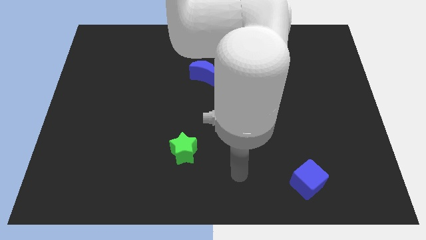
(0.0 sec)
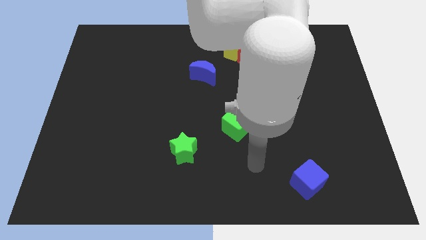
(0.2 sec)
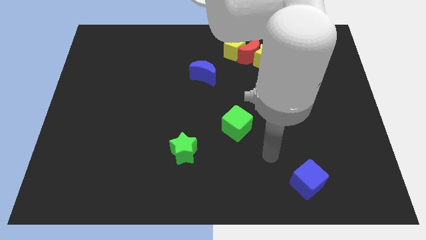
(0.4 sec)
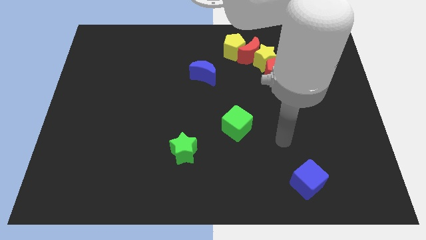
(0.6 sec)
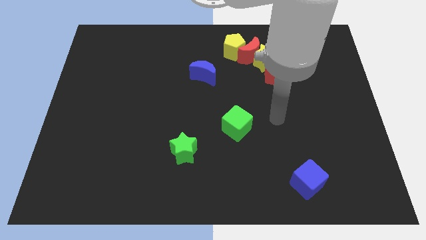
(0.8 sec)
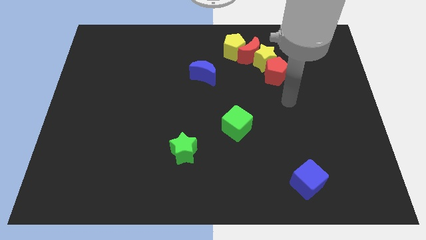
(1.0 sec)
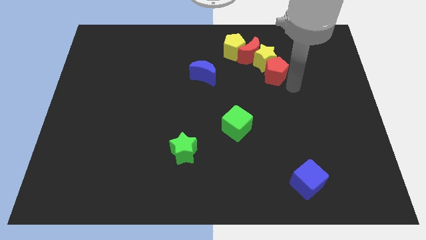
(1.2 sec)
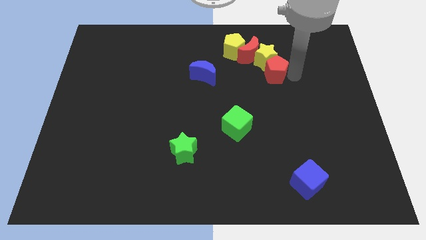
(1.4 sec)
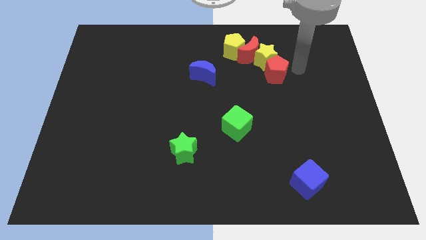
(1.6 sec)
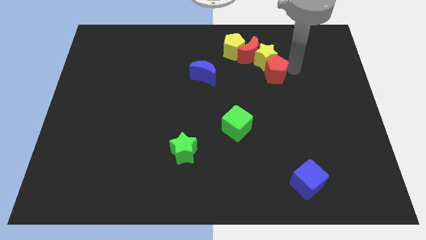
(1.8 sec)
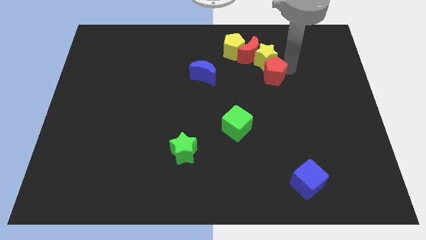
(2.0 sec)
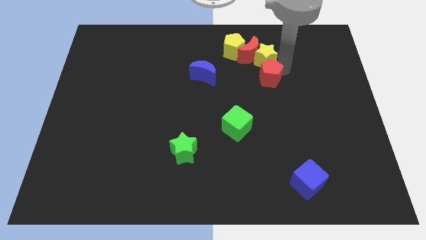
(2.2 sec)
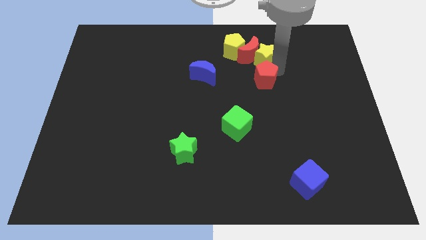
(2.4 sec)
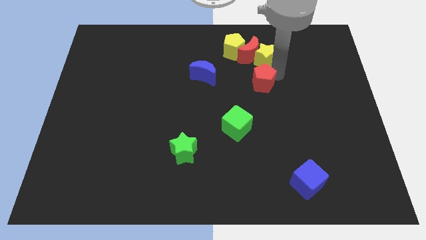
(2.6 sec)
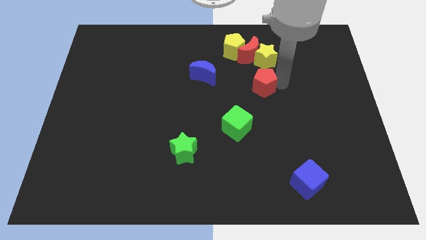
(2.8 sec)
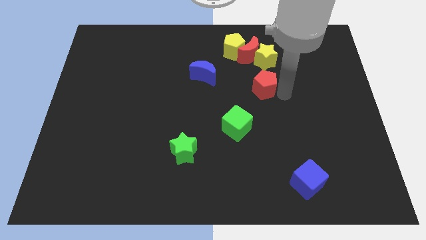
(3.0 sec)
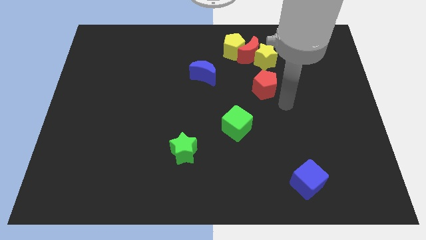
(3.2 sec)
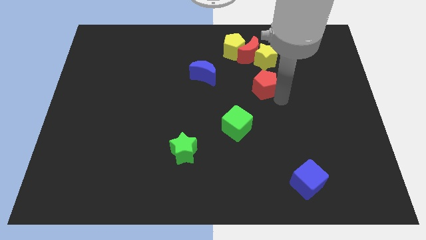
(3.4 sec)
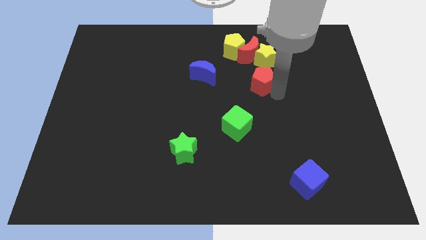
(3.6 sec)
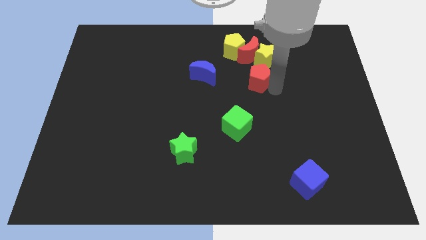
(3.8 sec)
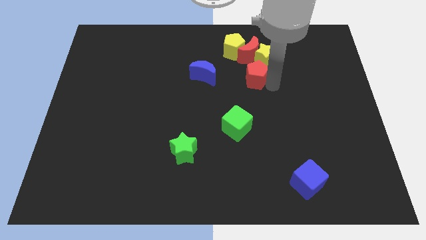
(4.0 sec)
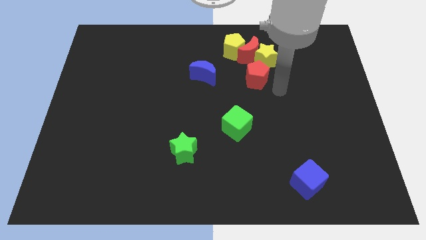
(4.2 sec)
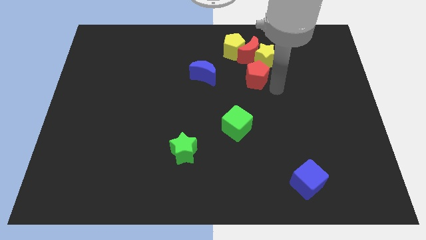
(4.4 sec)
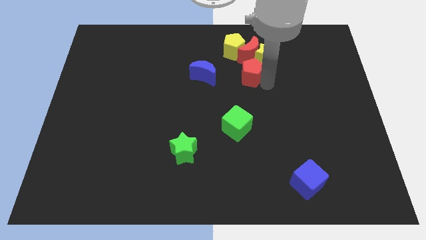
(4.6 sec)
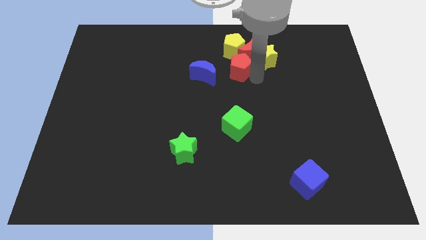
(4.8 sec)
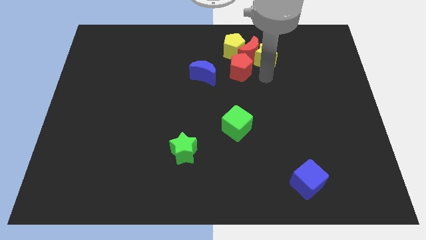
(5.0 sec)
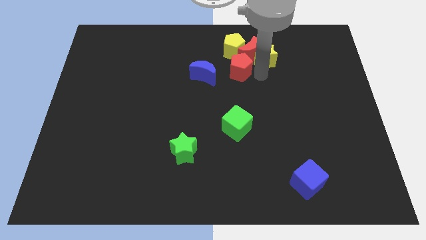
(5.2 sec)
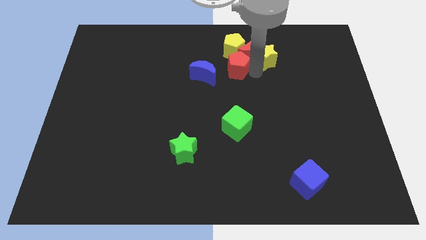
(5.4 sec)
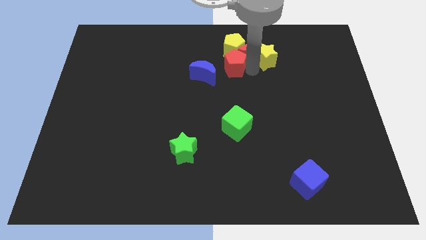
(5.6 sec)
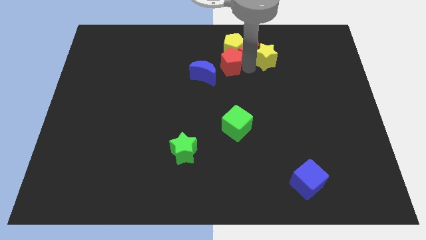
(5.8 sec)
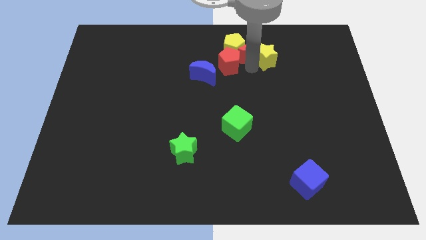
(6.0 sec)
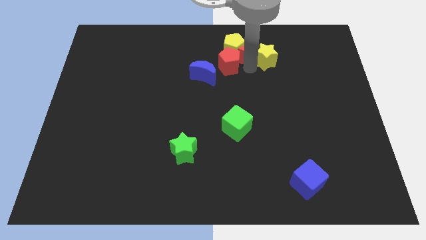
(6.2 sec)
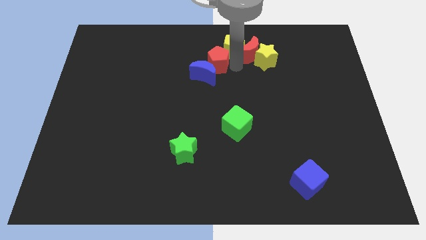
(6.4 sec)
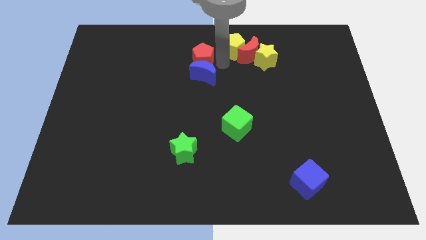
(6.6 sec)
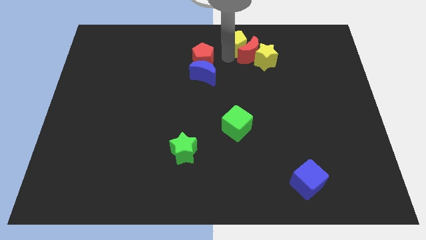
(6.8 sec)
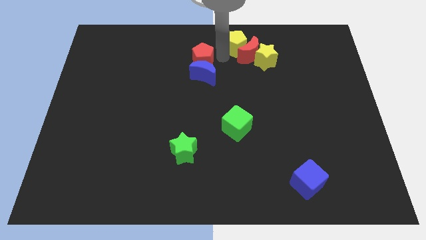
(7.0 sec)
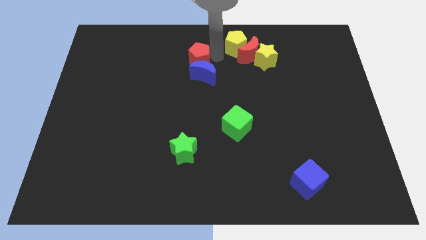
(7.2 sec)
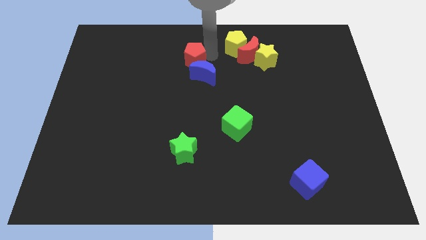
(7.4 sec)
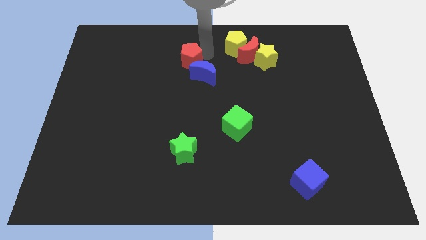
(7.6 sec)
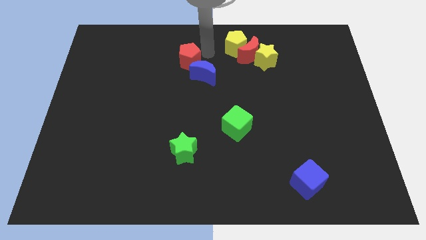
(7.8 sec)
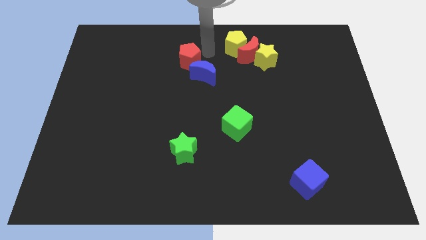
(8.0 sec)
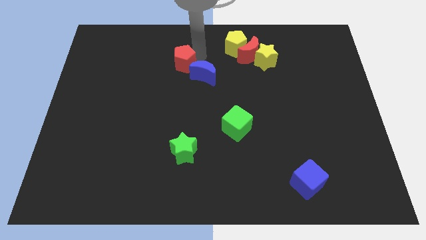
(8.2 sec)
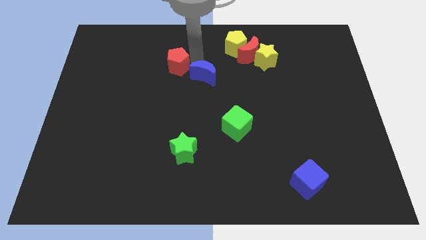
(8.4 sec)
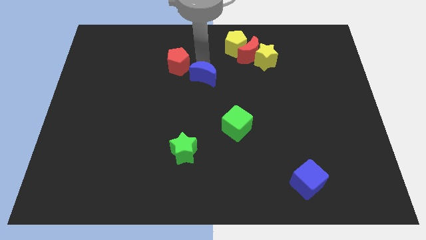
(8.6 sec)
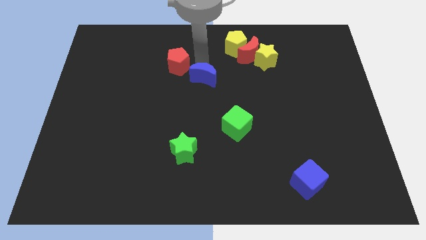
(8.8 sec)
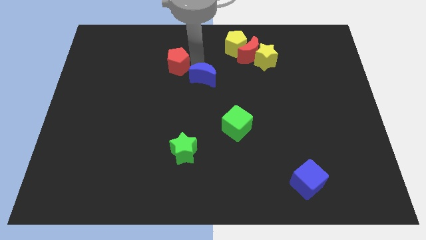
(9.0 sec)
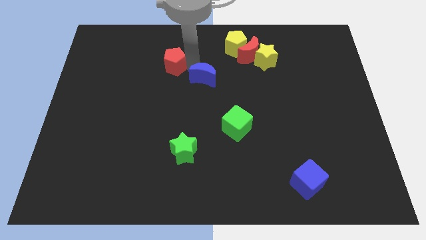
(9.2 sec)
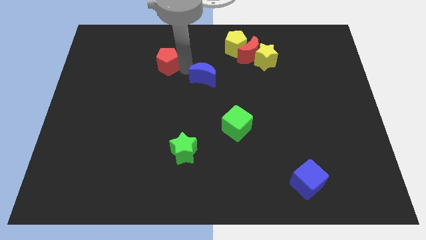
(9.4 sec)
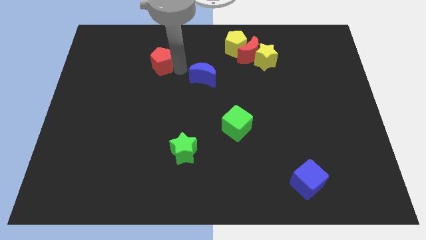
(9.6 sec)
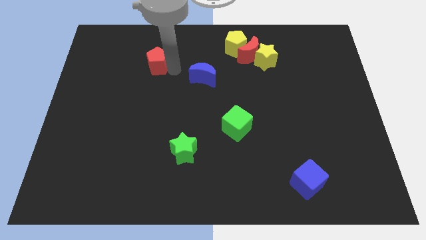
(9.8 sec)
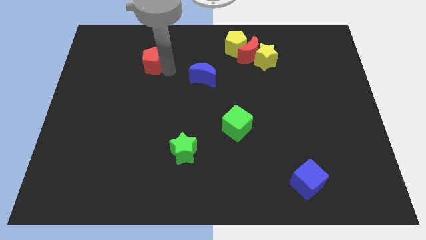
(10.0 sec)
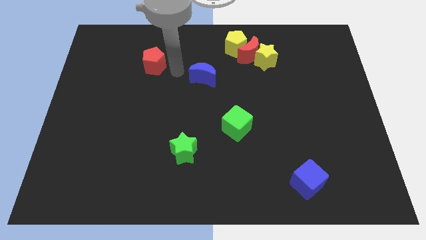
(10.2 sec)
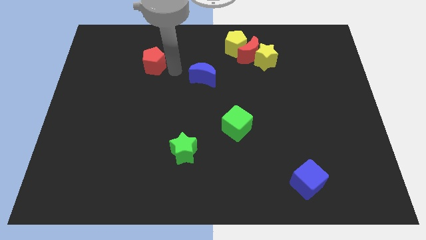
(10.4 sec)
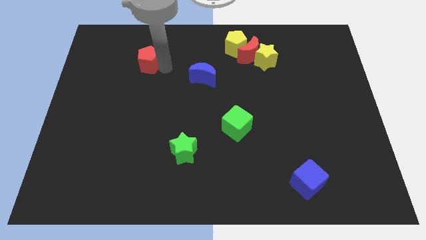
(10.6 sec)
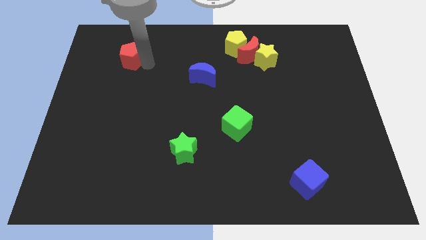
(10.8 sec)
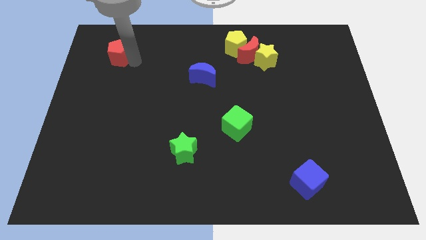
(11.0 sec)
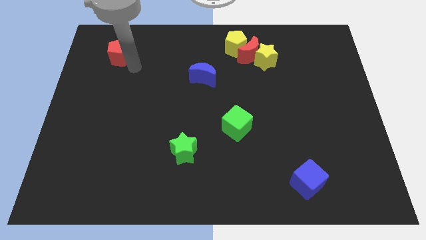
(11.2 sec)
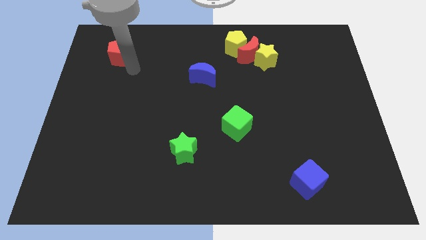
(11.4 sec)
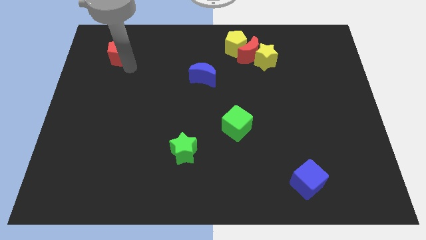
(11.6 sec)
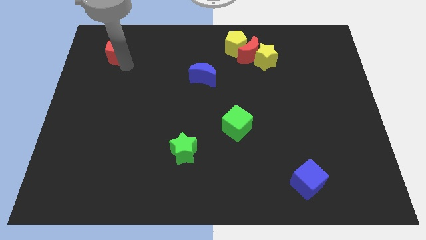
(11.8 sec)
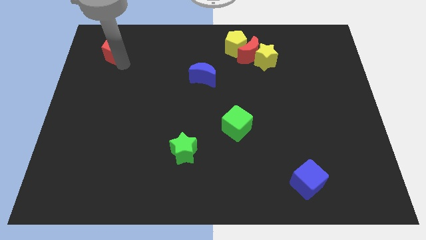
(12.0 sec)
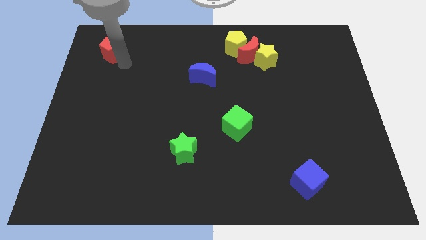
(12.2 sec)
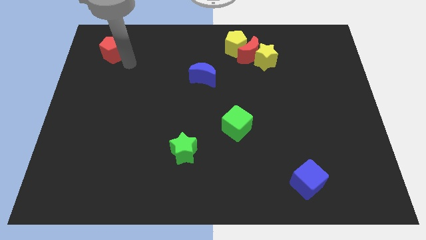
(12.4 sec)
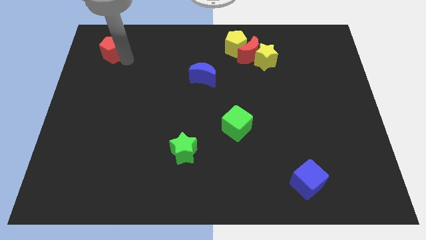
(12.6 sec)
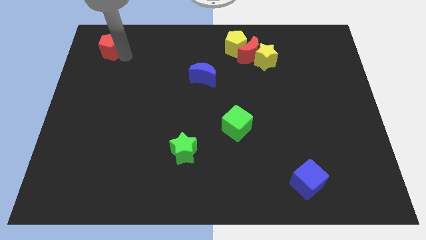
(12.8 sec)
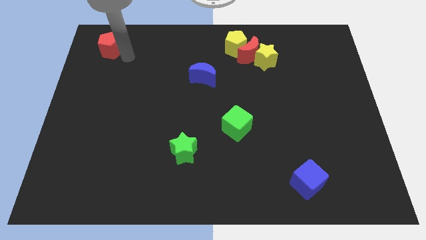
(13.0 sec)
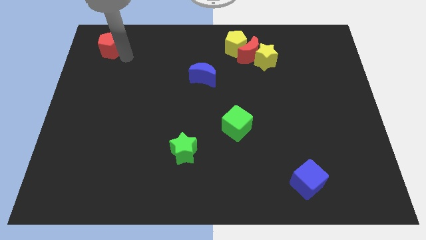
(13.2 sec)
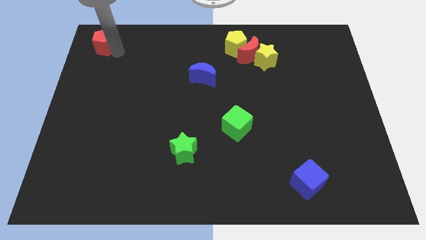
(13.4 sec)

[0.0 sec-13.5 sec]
move the red pentagon to the upper left corner
